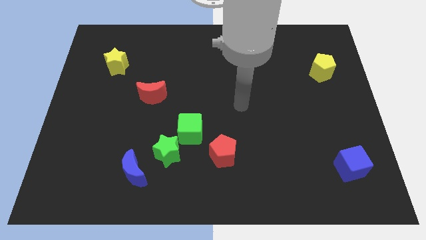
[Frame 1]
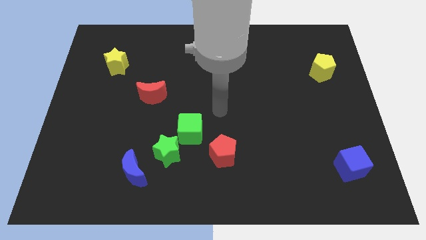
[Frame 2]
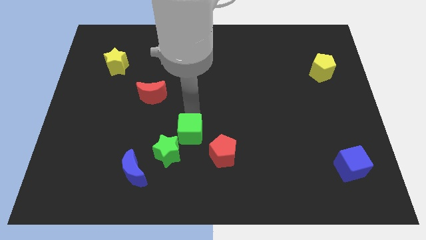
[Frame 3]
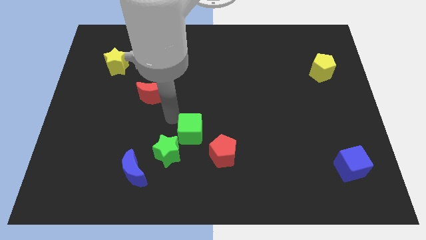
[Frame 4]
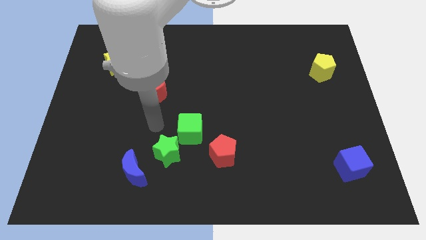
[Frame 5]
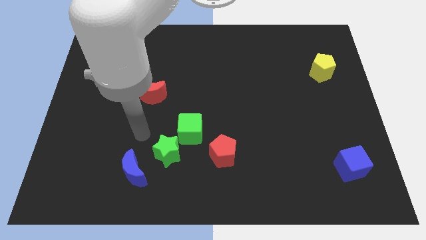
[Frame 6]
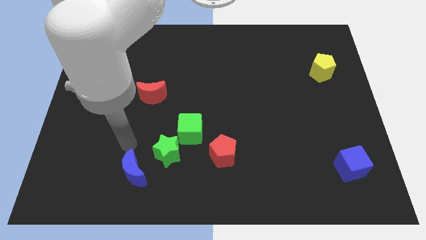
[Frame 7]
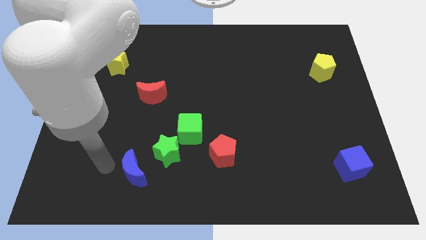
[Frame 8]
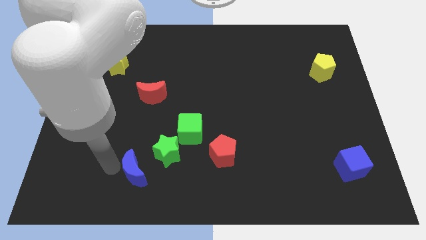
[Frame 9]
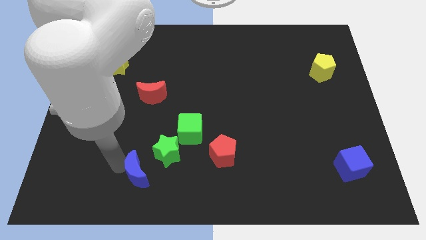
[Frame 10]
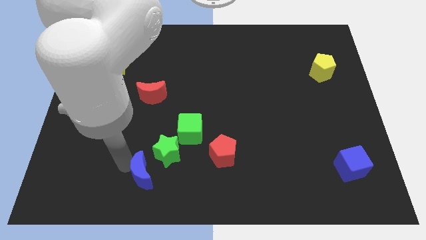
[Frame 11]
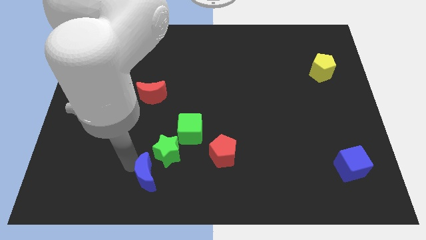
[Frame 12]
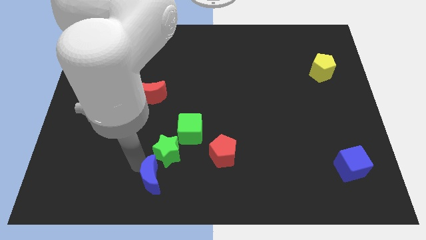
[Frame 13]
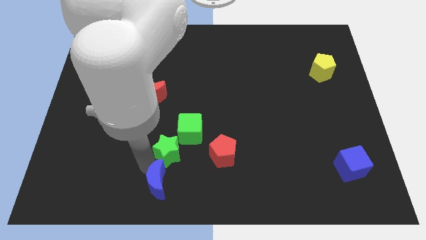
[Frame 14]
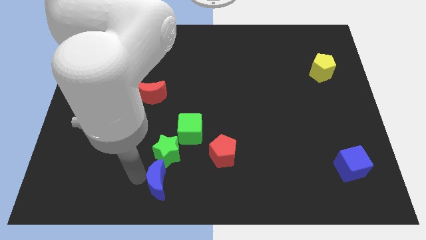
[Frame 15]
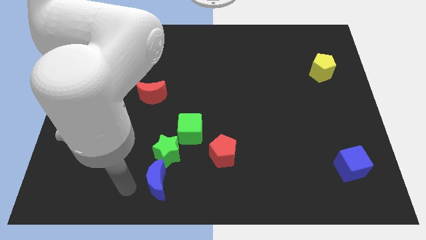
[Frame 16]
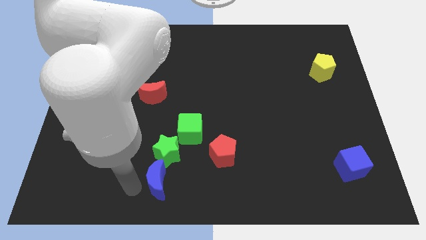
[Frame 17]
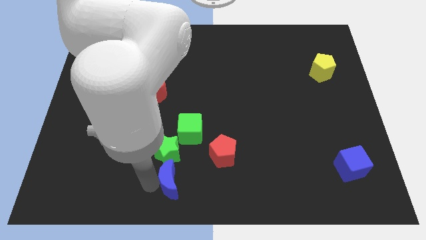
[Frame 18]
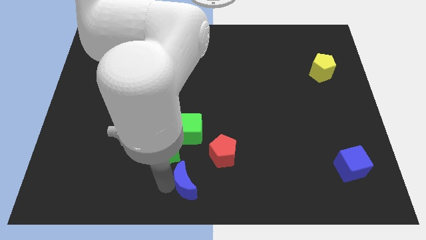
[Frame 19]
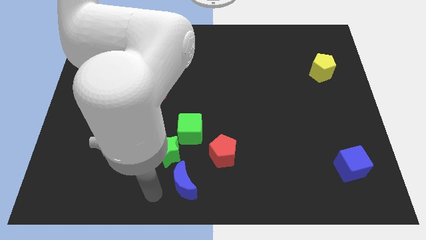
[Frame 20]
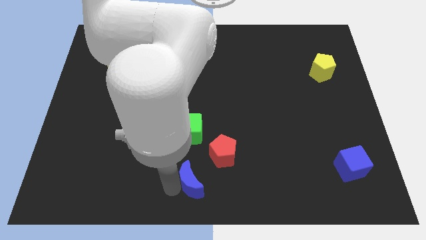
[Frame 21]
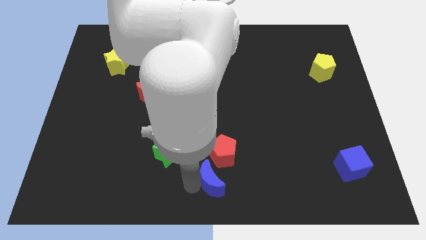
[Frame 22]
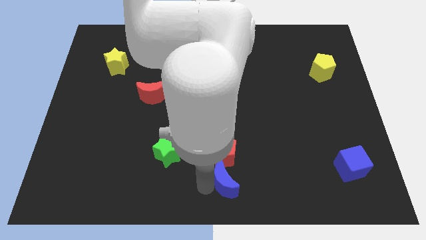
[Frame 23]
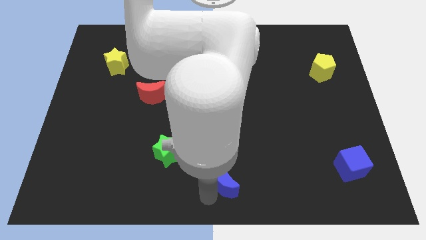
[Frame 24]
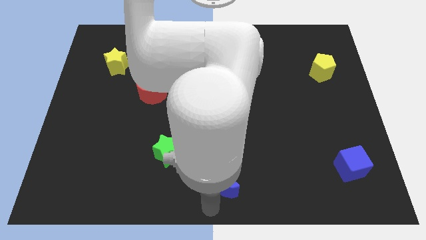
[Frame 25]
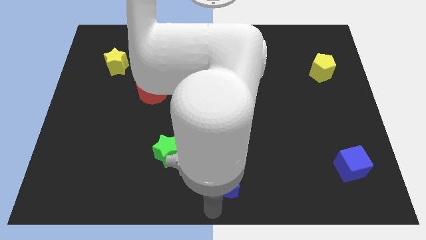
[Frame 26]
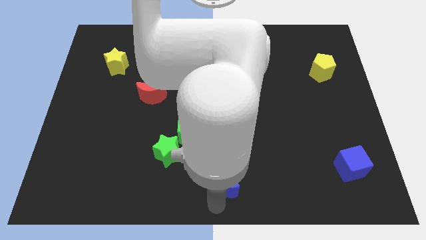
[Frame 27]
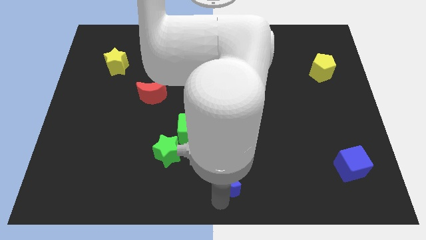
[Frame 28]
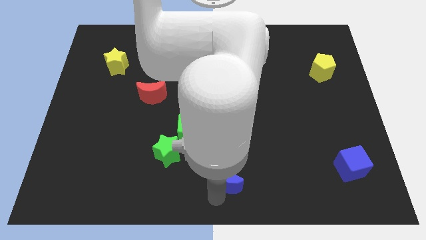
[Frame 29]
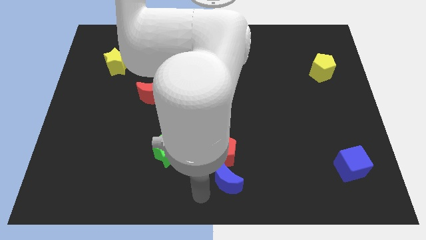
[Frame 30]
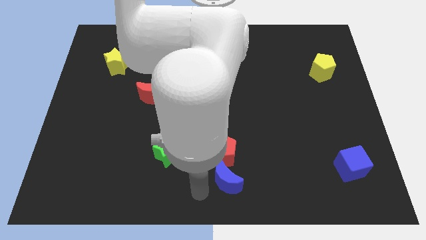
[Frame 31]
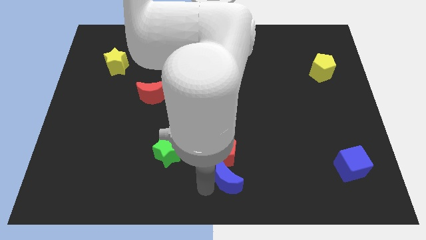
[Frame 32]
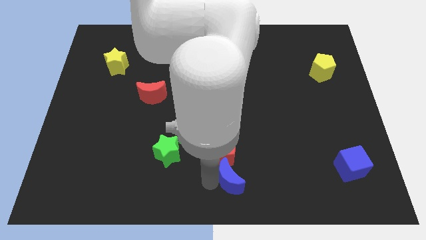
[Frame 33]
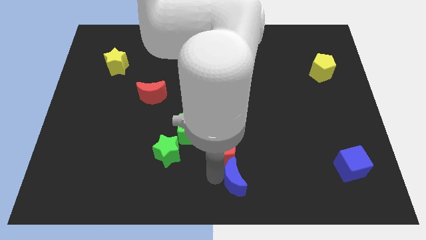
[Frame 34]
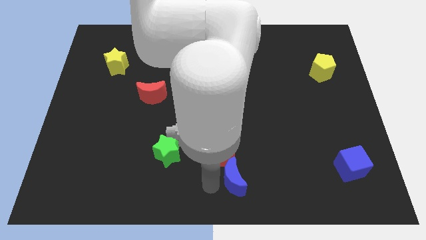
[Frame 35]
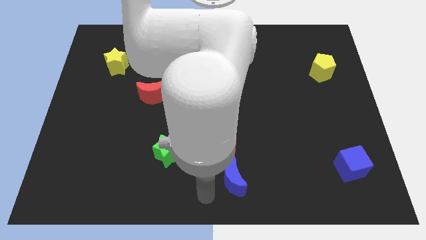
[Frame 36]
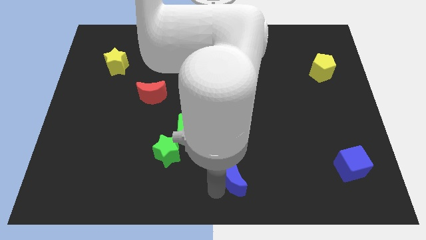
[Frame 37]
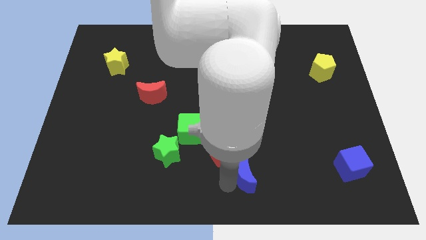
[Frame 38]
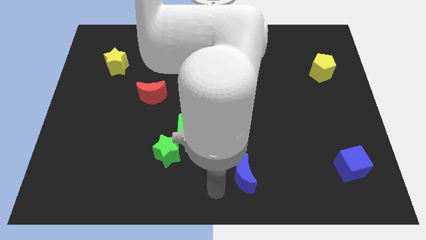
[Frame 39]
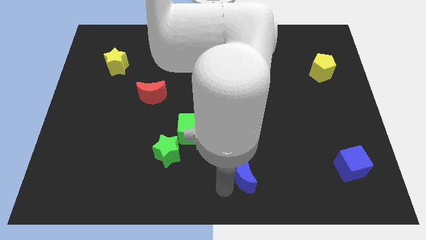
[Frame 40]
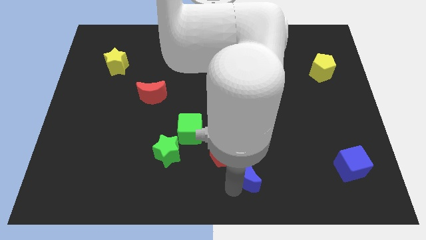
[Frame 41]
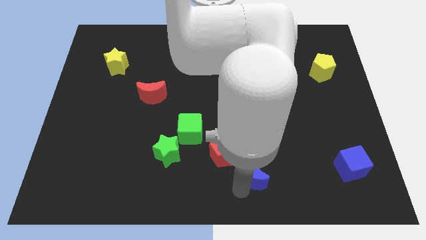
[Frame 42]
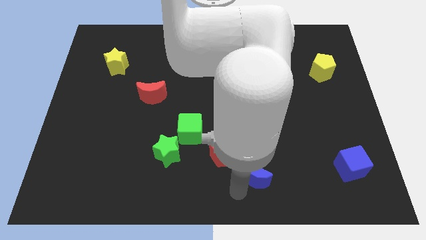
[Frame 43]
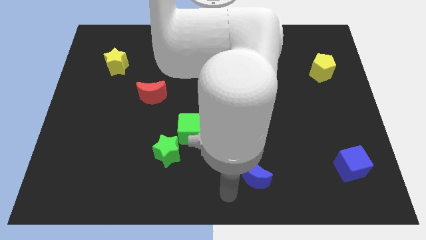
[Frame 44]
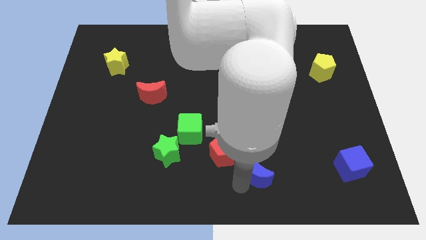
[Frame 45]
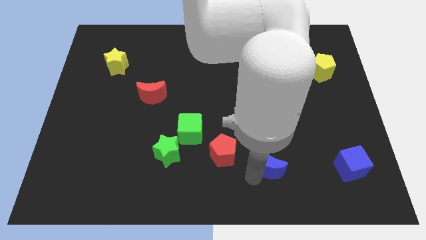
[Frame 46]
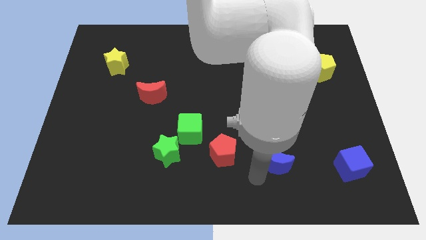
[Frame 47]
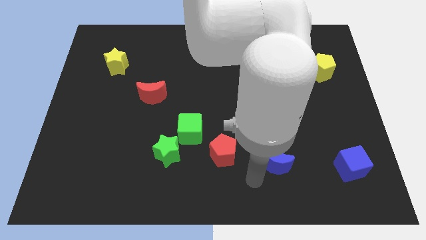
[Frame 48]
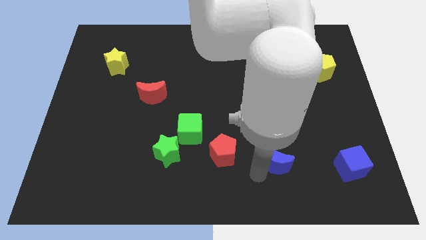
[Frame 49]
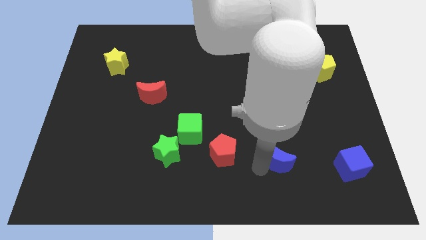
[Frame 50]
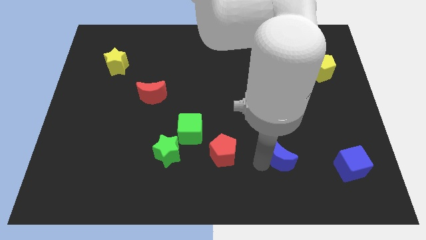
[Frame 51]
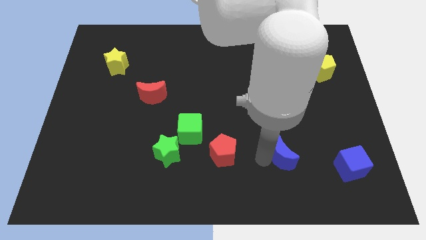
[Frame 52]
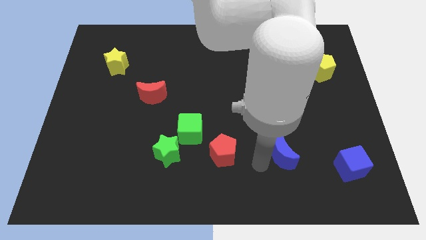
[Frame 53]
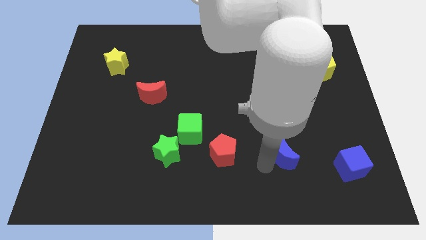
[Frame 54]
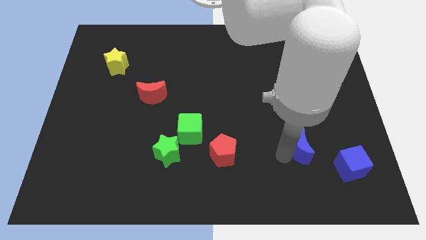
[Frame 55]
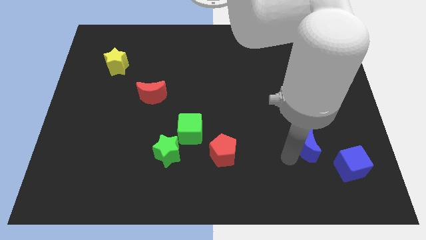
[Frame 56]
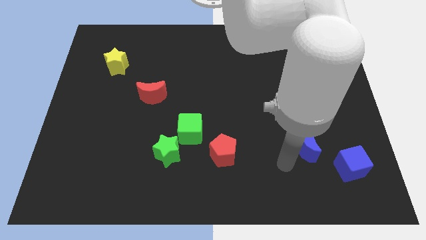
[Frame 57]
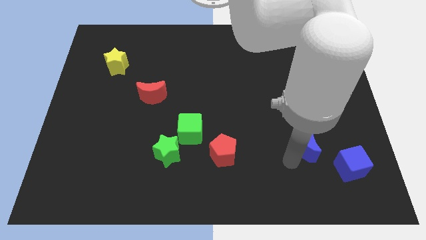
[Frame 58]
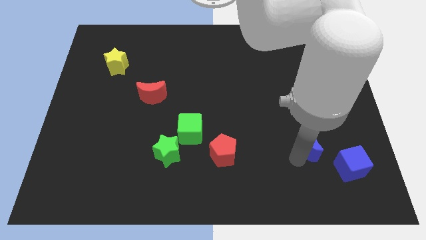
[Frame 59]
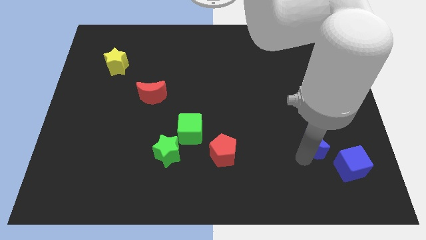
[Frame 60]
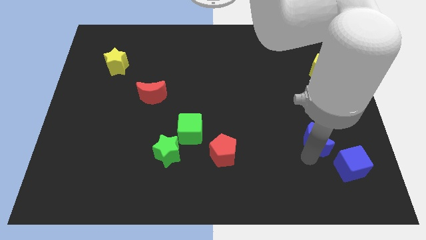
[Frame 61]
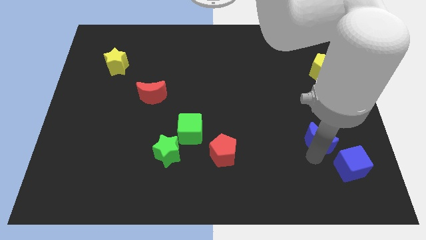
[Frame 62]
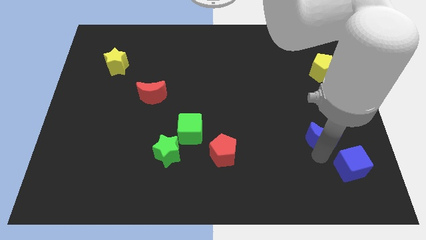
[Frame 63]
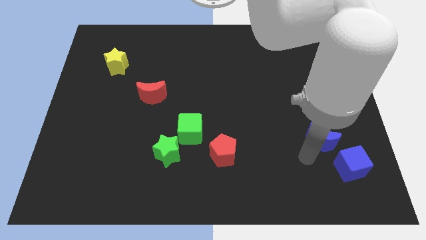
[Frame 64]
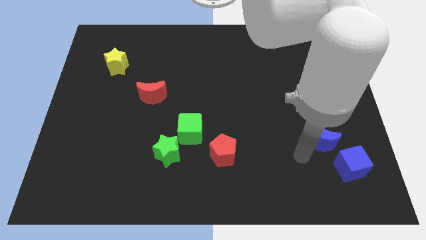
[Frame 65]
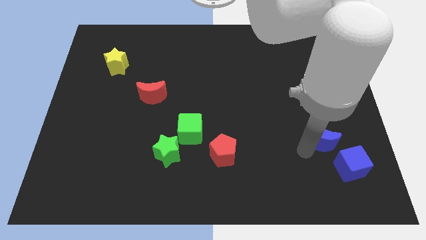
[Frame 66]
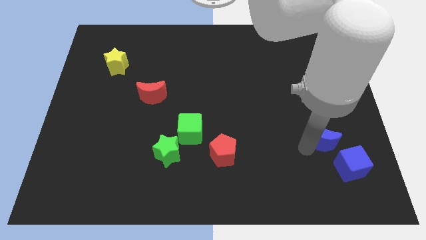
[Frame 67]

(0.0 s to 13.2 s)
push the blue moon to the top side of the blue cube

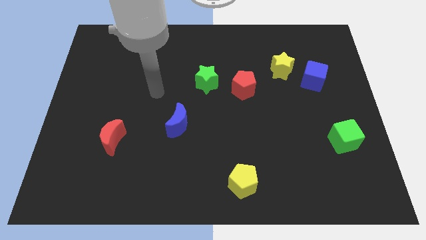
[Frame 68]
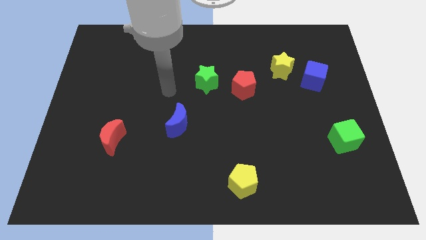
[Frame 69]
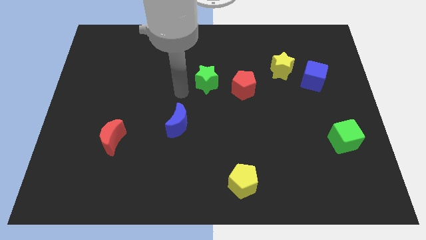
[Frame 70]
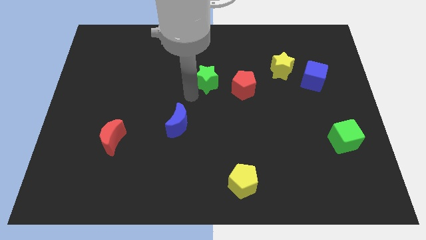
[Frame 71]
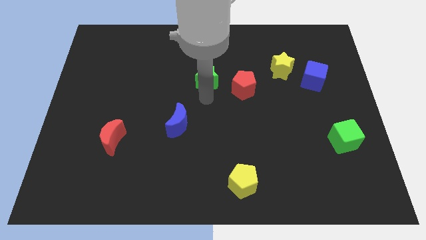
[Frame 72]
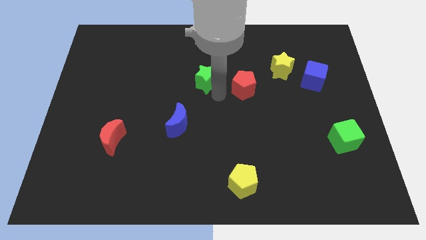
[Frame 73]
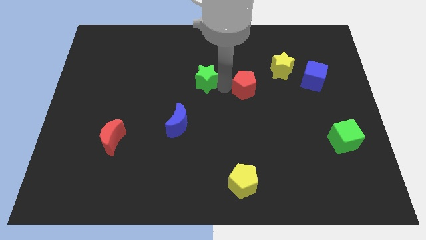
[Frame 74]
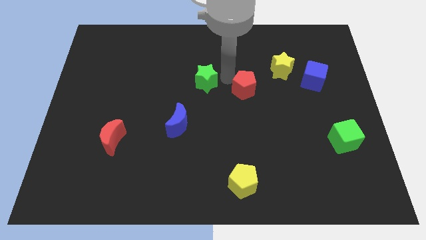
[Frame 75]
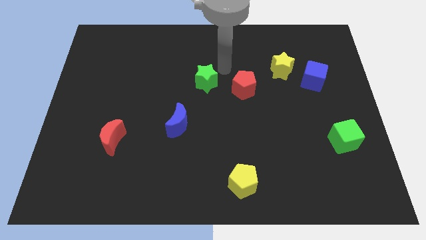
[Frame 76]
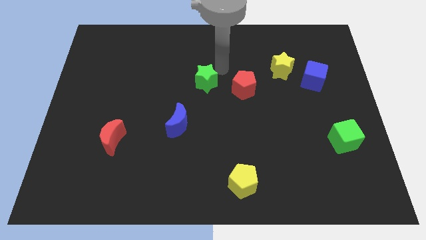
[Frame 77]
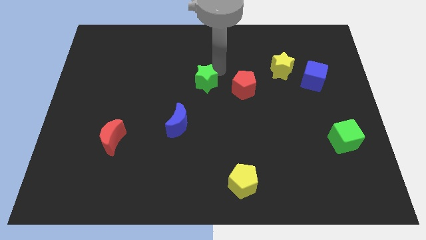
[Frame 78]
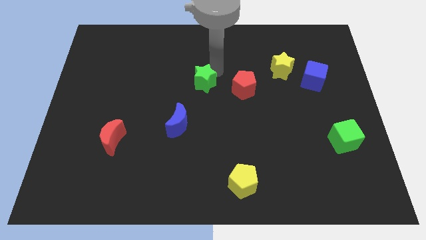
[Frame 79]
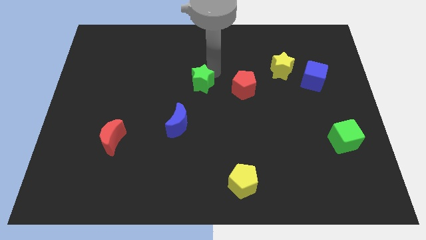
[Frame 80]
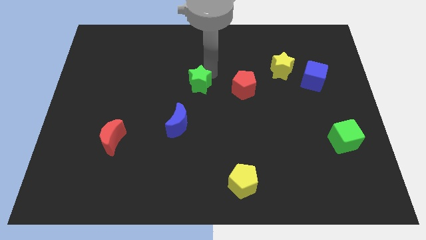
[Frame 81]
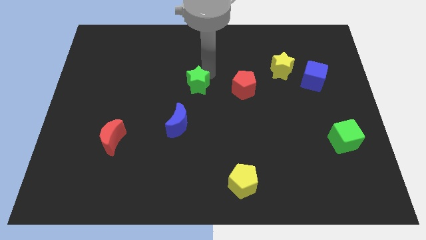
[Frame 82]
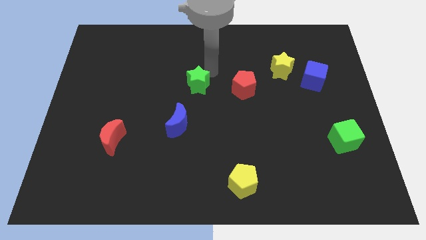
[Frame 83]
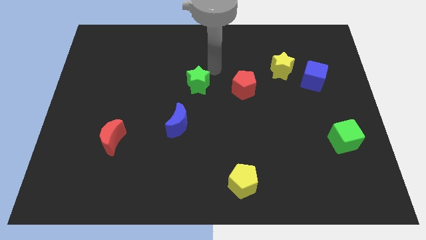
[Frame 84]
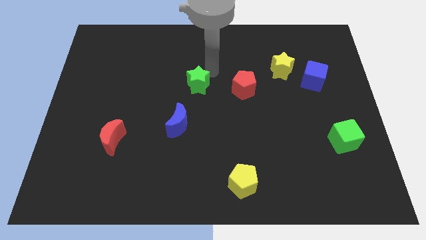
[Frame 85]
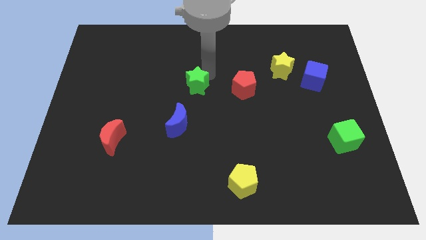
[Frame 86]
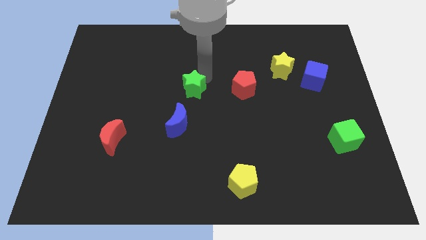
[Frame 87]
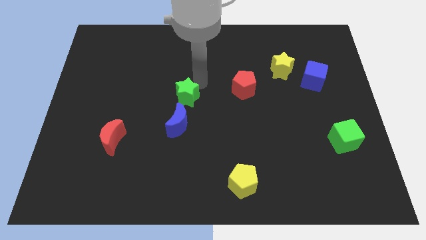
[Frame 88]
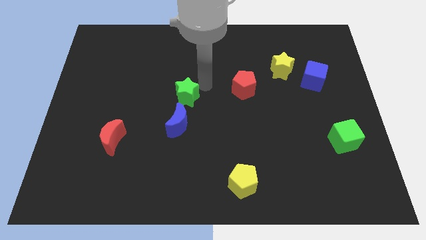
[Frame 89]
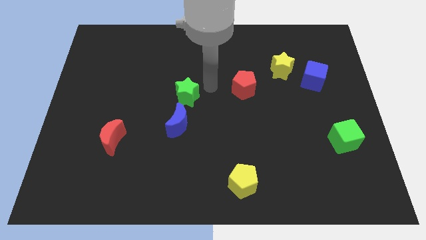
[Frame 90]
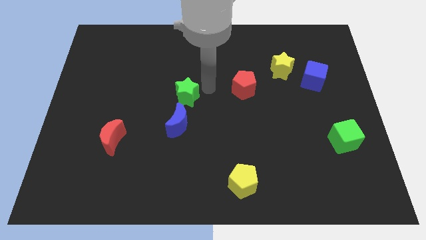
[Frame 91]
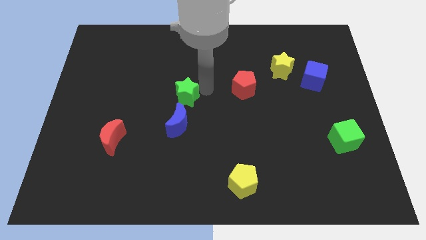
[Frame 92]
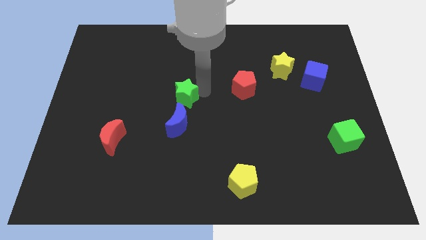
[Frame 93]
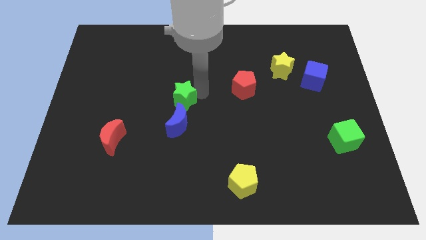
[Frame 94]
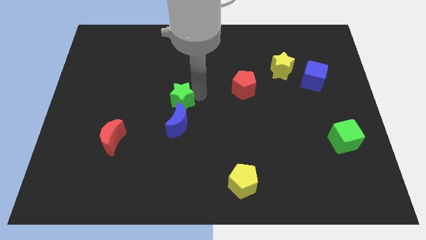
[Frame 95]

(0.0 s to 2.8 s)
push the green star to the top left side of the blue moon
